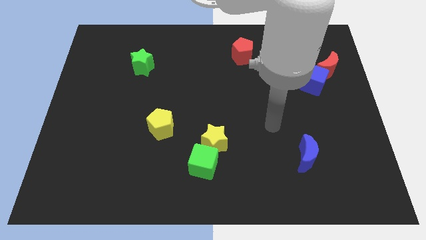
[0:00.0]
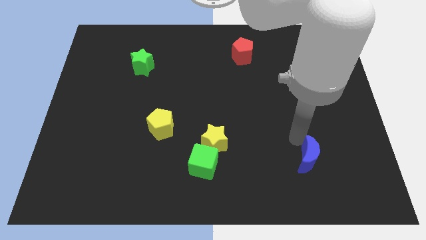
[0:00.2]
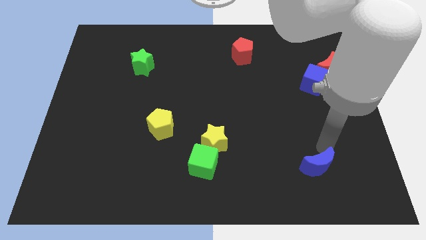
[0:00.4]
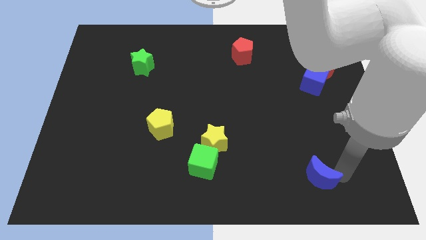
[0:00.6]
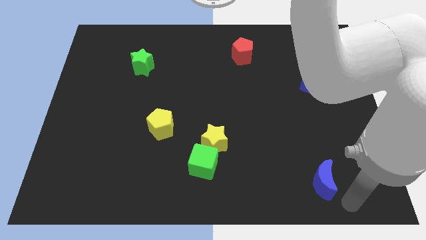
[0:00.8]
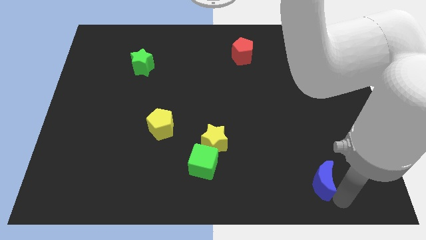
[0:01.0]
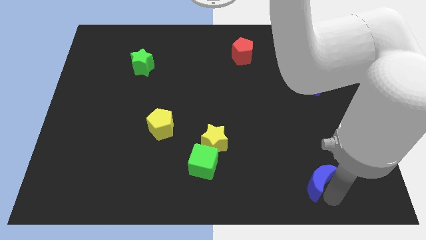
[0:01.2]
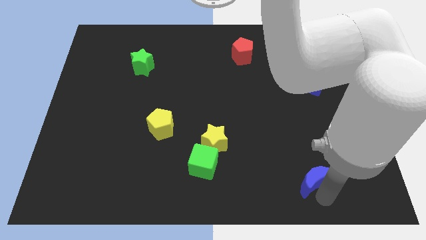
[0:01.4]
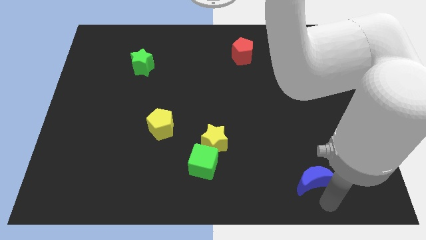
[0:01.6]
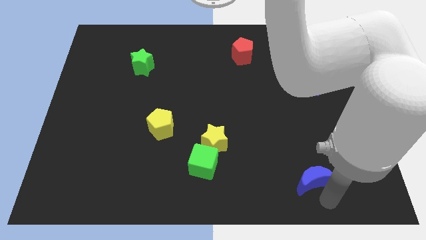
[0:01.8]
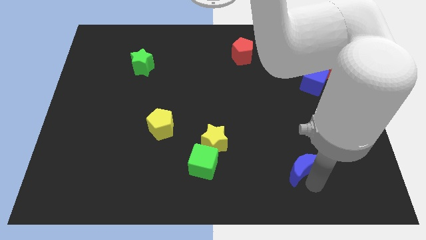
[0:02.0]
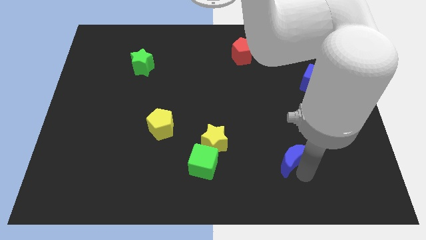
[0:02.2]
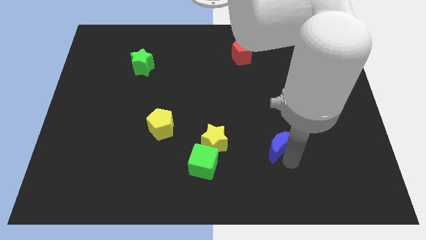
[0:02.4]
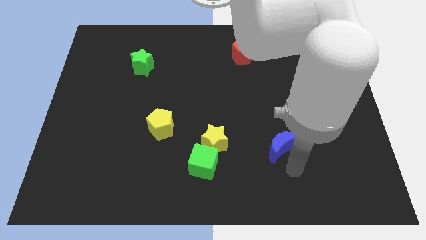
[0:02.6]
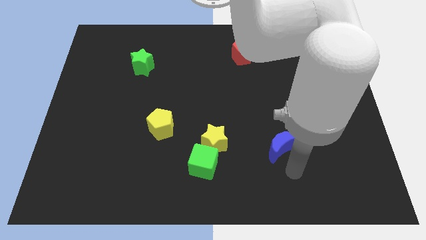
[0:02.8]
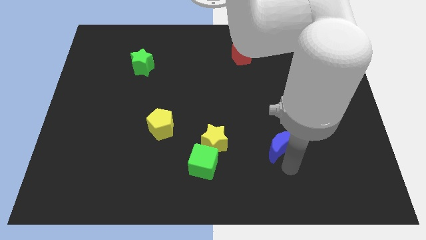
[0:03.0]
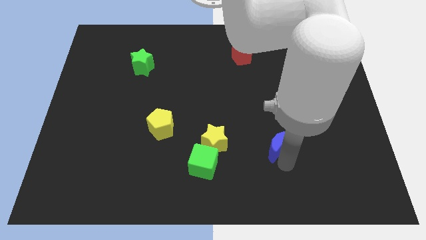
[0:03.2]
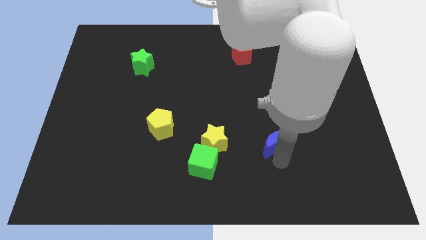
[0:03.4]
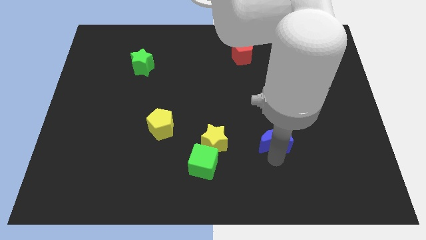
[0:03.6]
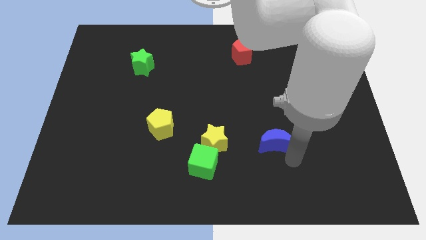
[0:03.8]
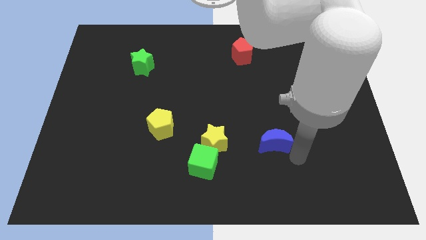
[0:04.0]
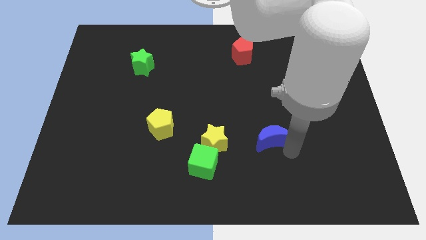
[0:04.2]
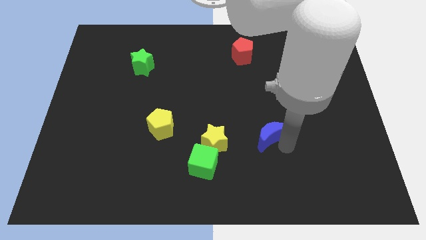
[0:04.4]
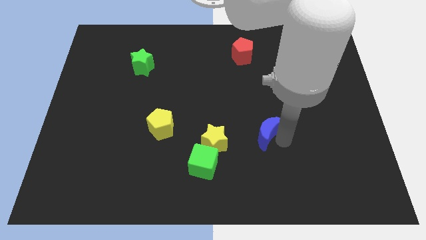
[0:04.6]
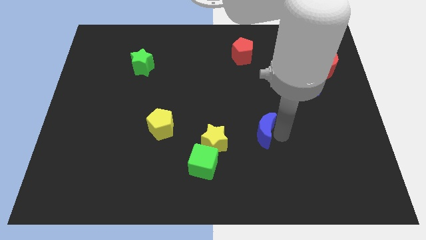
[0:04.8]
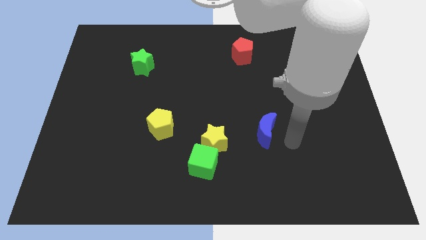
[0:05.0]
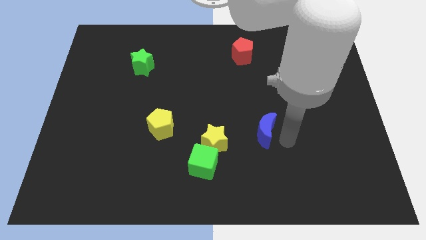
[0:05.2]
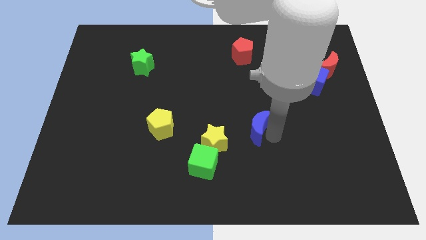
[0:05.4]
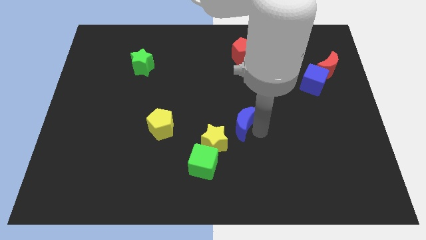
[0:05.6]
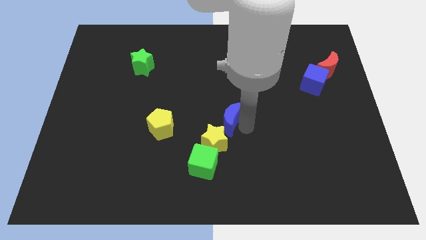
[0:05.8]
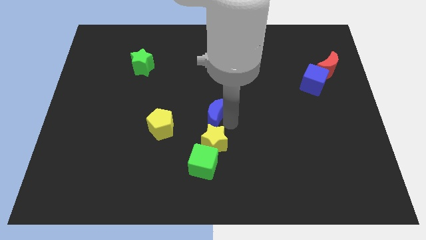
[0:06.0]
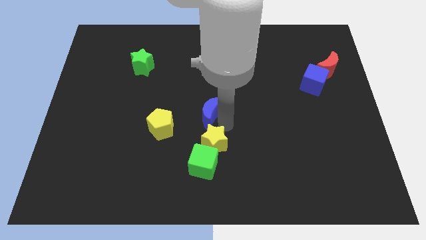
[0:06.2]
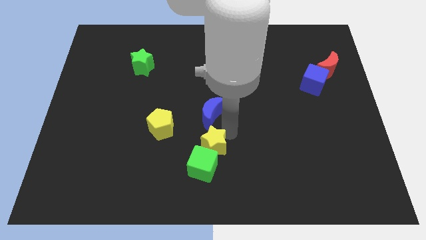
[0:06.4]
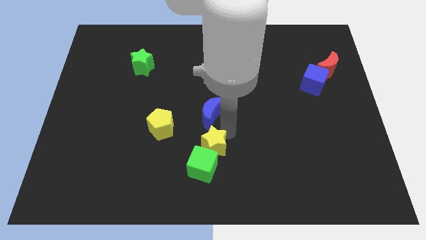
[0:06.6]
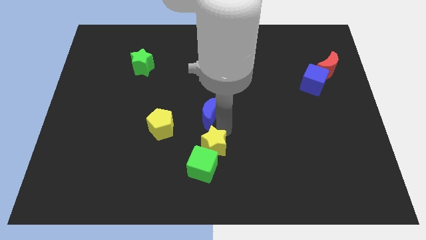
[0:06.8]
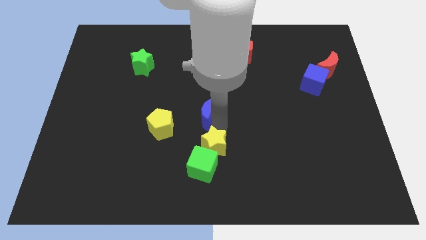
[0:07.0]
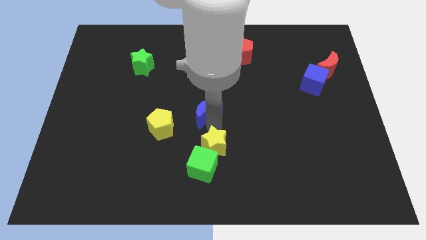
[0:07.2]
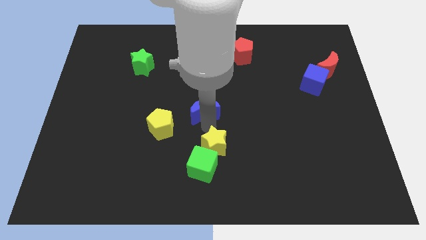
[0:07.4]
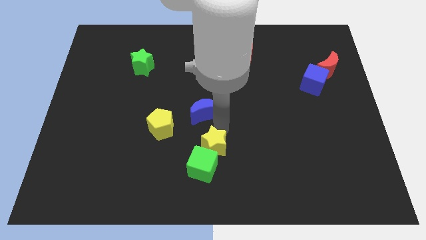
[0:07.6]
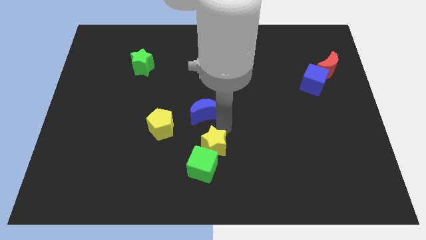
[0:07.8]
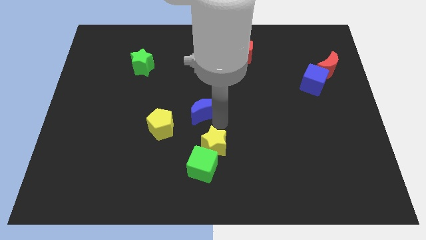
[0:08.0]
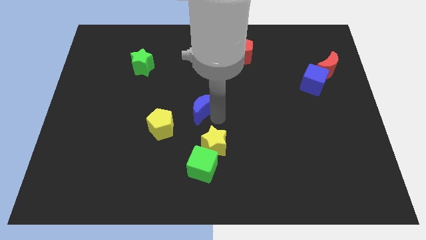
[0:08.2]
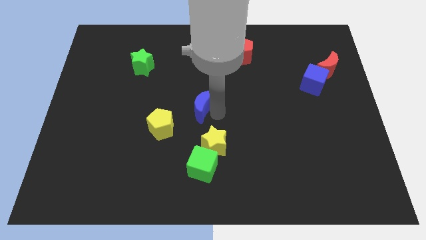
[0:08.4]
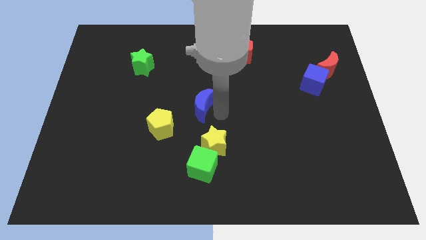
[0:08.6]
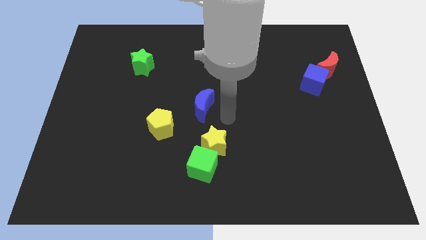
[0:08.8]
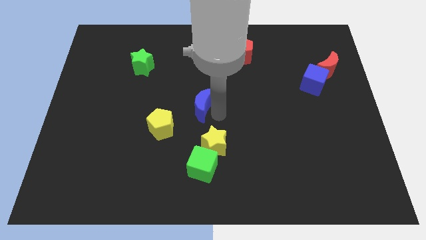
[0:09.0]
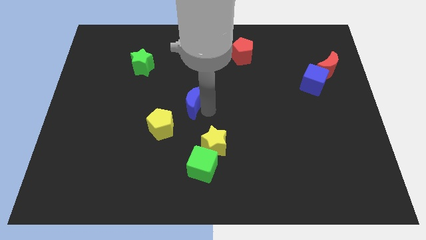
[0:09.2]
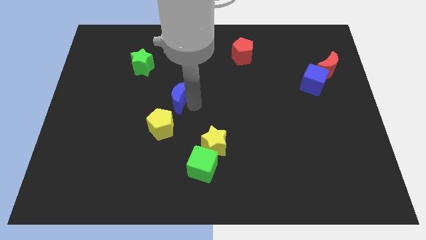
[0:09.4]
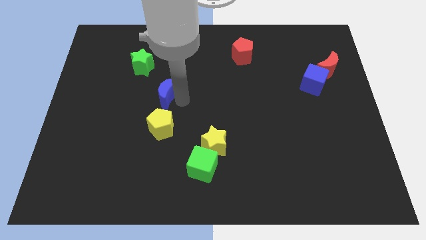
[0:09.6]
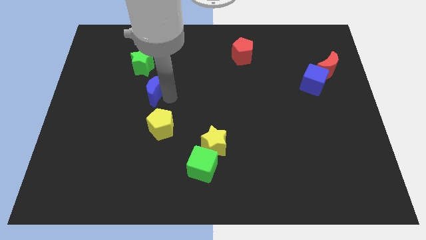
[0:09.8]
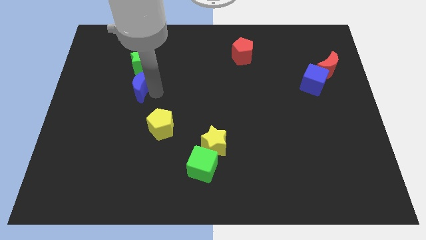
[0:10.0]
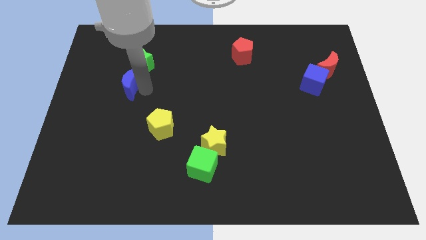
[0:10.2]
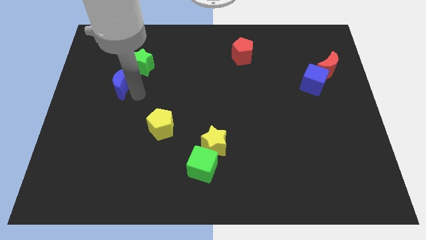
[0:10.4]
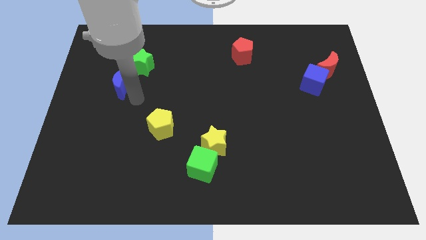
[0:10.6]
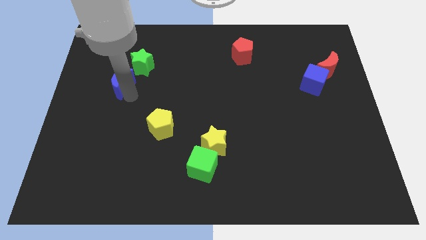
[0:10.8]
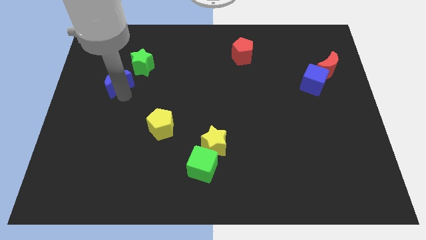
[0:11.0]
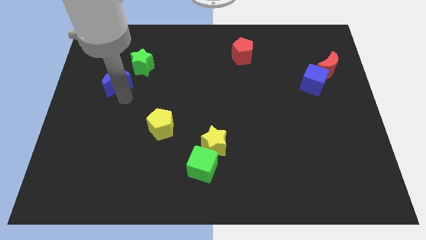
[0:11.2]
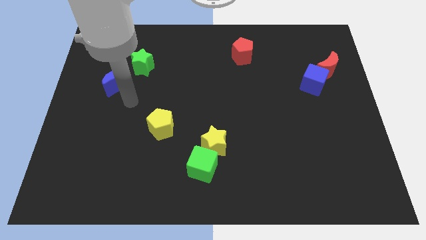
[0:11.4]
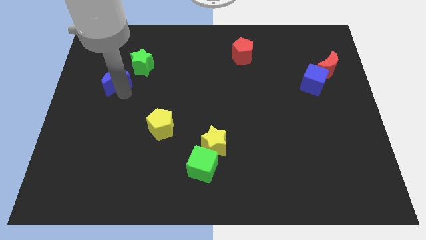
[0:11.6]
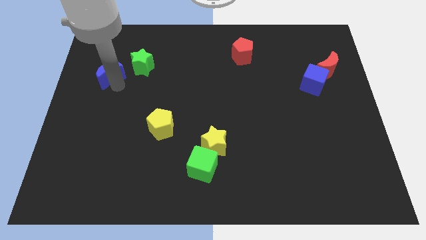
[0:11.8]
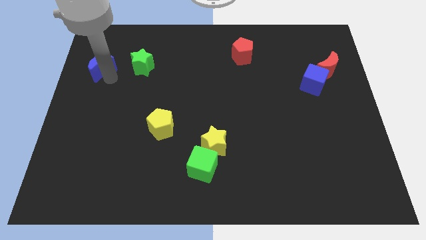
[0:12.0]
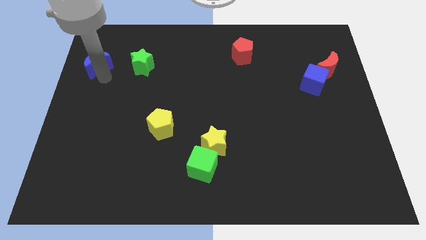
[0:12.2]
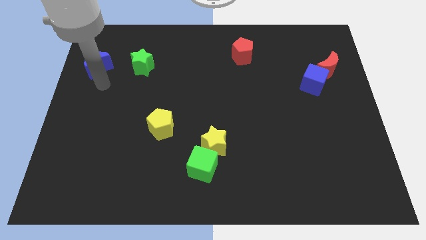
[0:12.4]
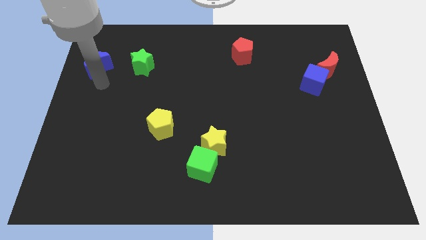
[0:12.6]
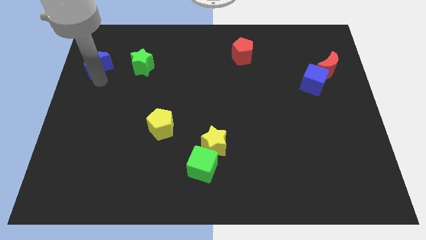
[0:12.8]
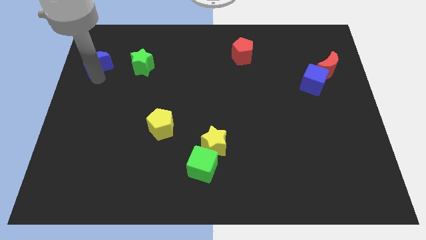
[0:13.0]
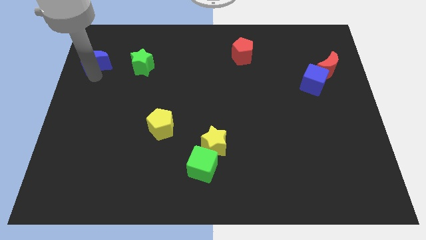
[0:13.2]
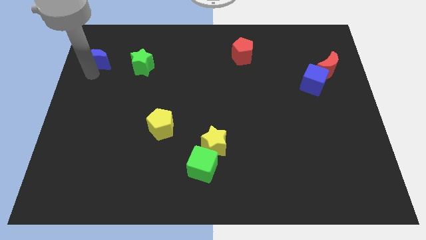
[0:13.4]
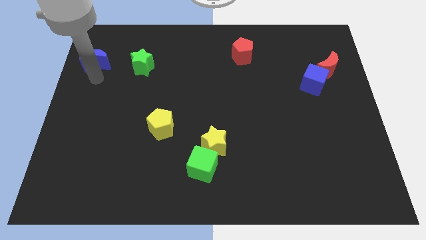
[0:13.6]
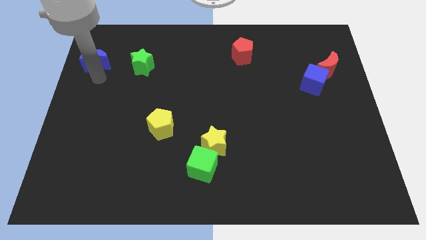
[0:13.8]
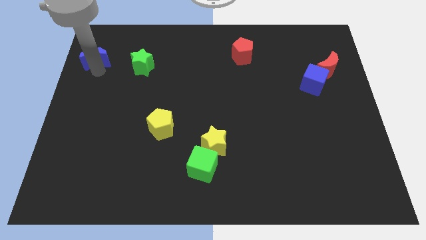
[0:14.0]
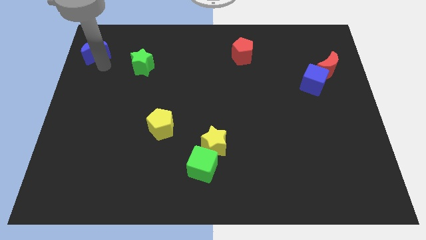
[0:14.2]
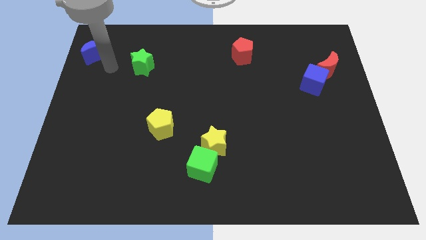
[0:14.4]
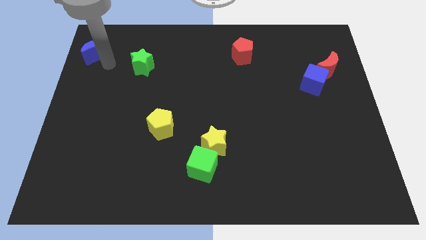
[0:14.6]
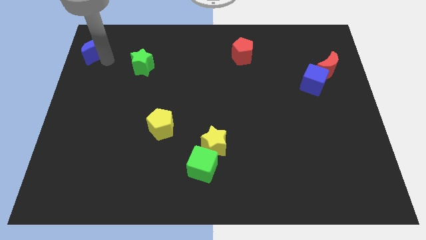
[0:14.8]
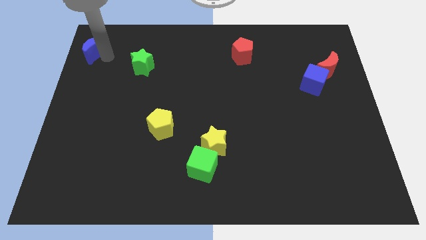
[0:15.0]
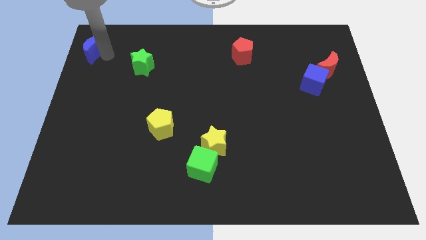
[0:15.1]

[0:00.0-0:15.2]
move the blue moon to the top left of the board

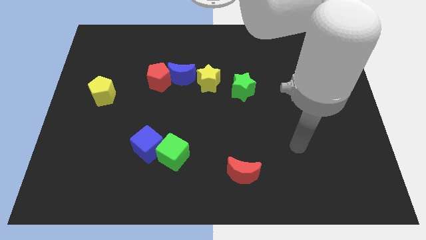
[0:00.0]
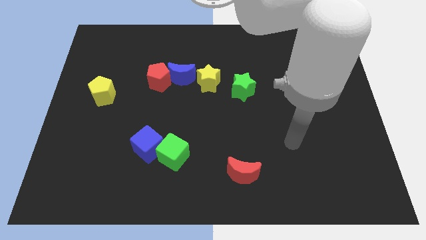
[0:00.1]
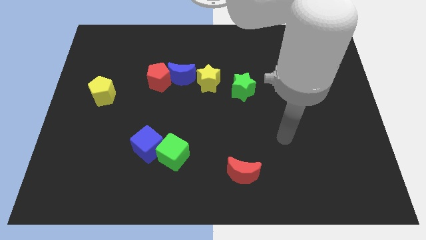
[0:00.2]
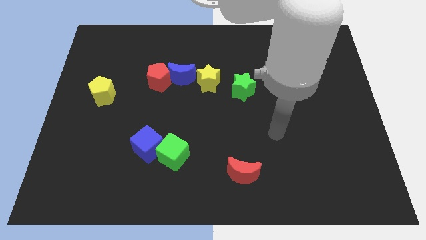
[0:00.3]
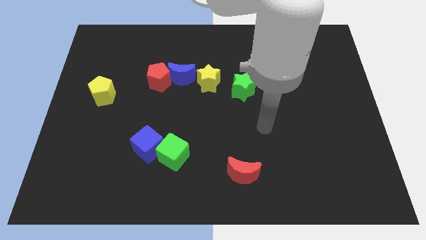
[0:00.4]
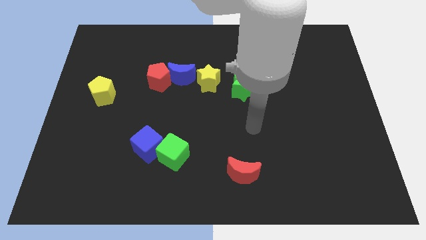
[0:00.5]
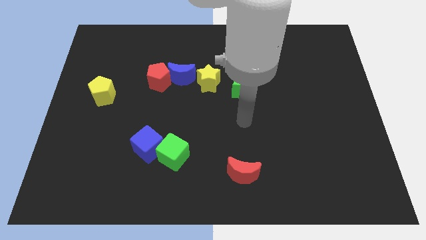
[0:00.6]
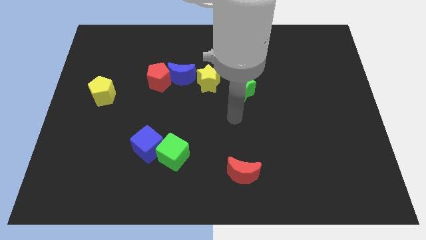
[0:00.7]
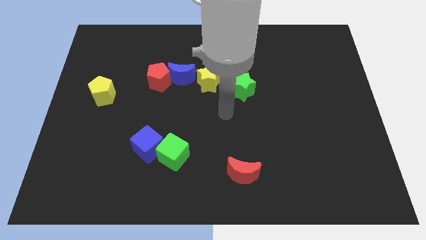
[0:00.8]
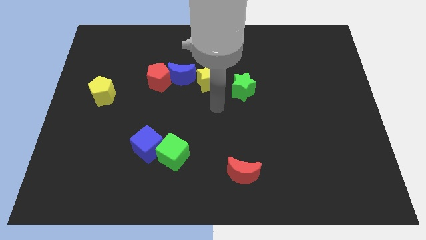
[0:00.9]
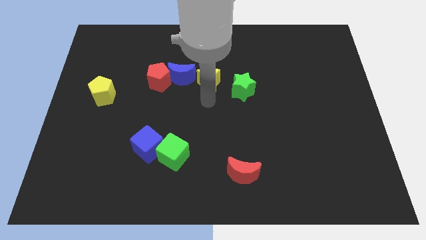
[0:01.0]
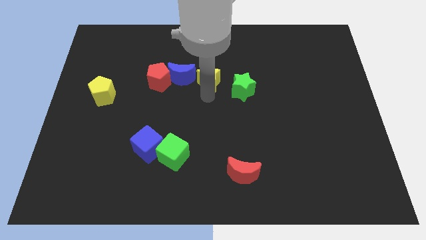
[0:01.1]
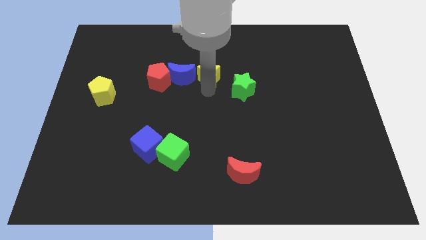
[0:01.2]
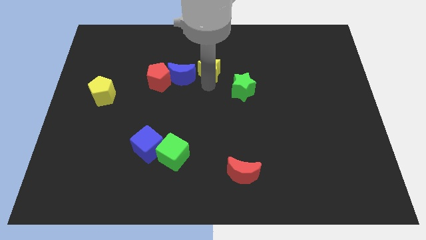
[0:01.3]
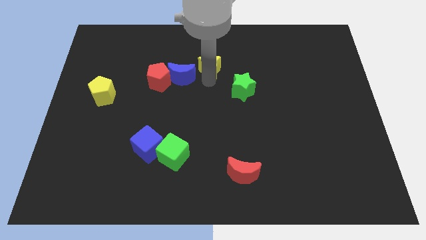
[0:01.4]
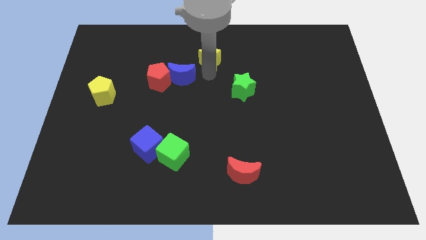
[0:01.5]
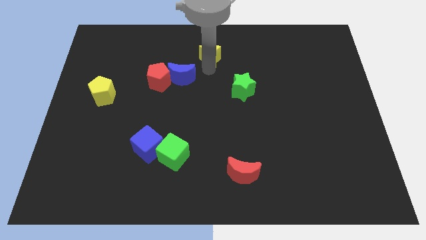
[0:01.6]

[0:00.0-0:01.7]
put the yellow star to the top side
